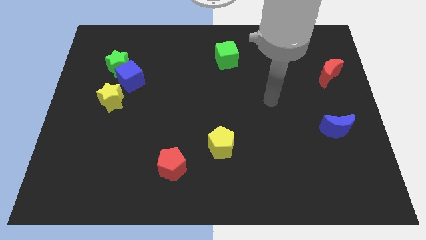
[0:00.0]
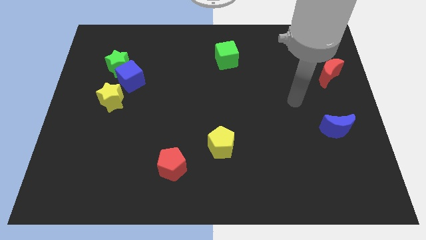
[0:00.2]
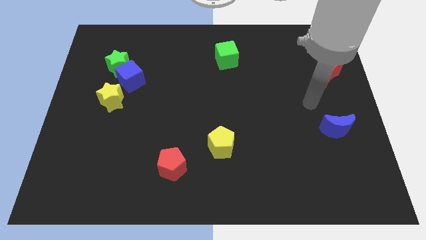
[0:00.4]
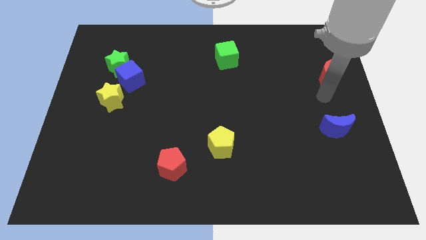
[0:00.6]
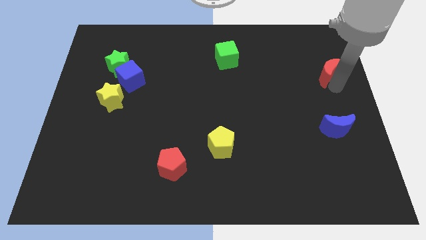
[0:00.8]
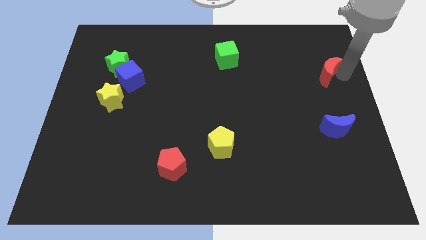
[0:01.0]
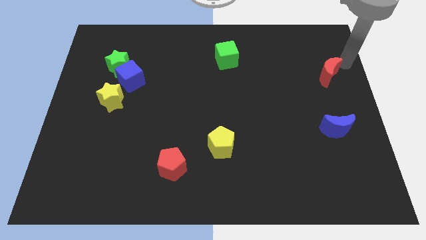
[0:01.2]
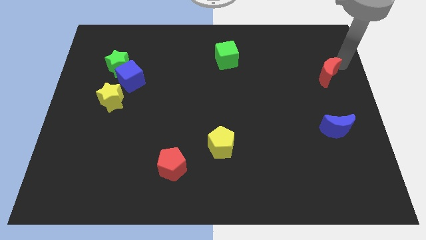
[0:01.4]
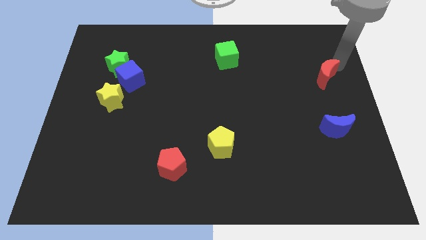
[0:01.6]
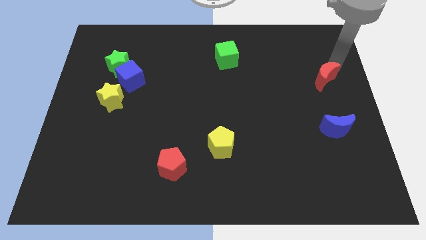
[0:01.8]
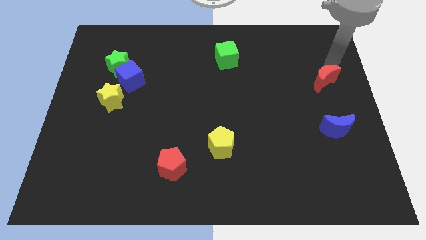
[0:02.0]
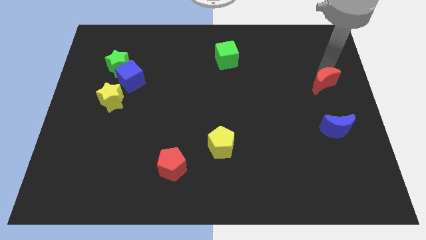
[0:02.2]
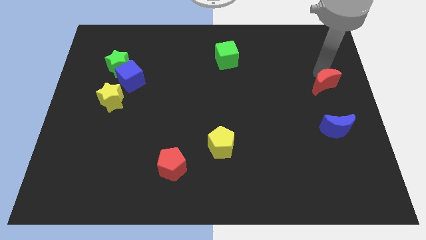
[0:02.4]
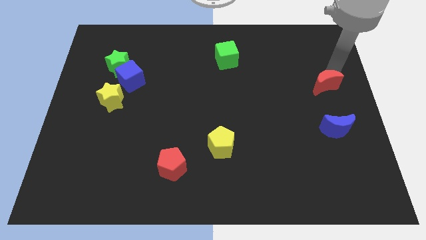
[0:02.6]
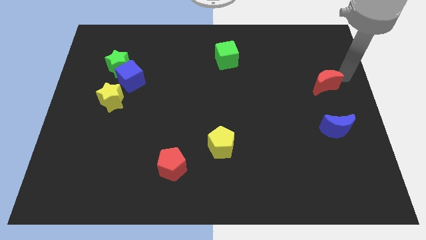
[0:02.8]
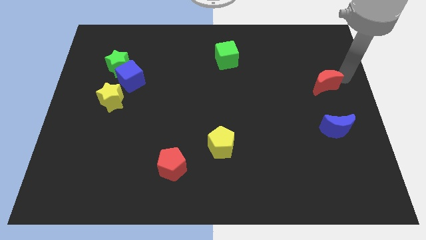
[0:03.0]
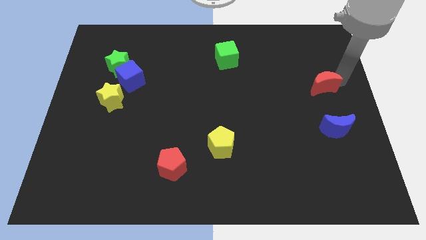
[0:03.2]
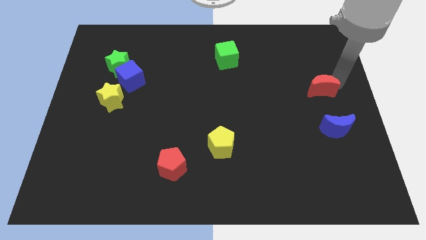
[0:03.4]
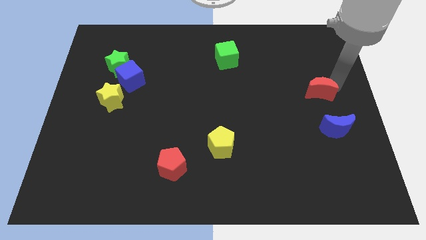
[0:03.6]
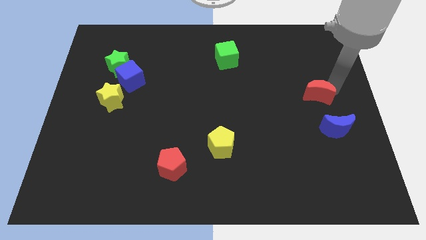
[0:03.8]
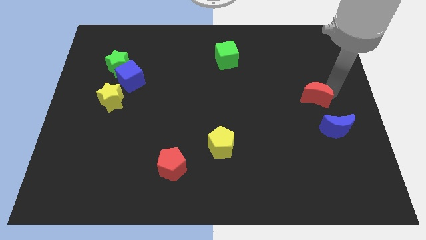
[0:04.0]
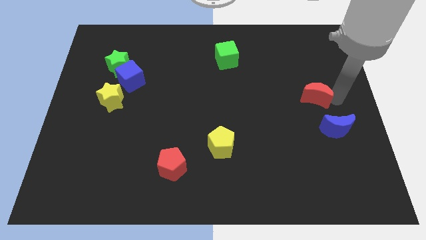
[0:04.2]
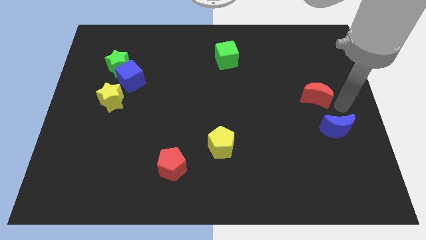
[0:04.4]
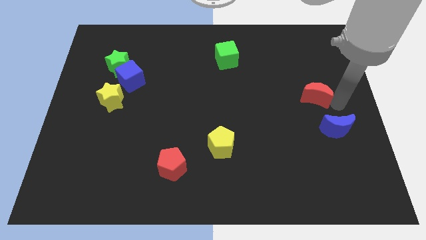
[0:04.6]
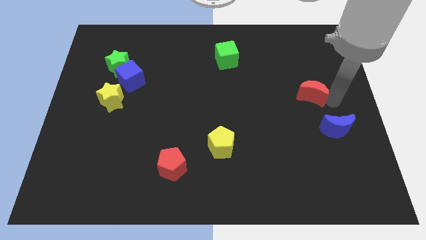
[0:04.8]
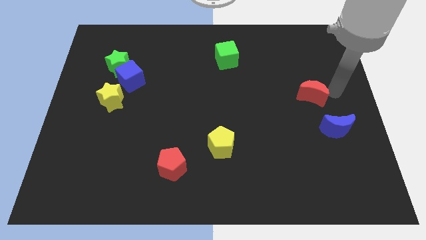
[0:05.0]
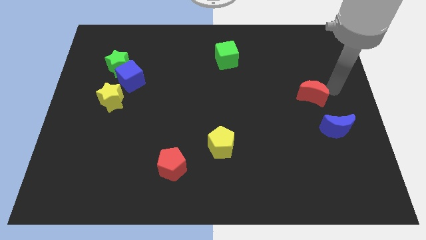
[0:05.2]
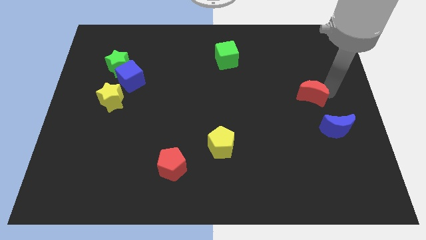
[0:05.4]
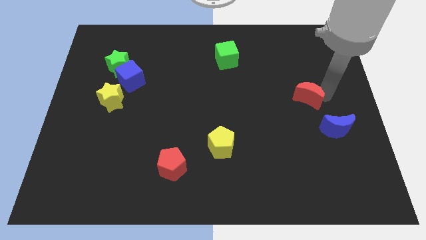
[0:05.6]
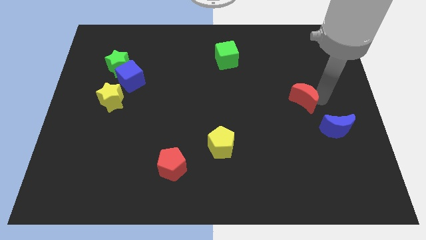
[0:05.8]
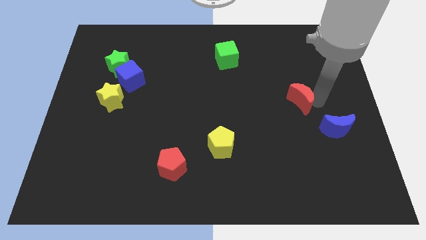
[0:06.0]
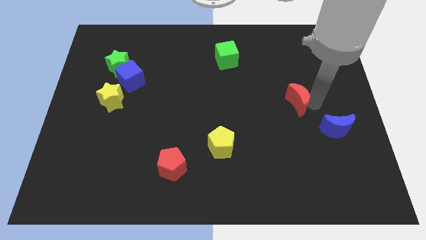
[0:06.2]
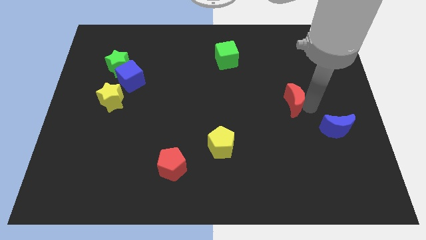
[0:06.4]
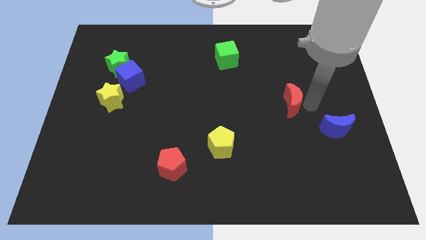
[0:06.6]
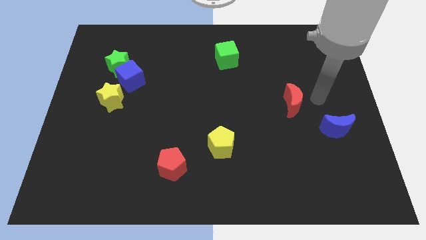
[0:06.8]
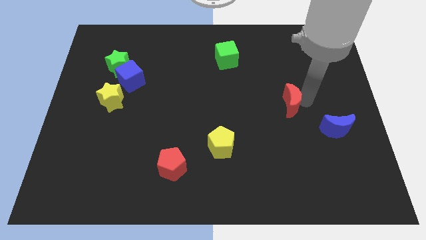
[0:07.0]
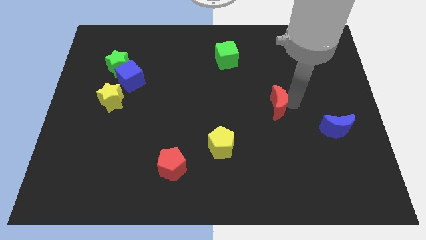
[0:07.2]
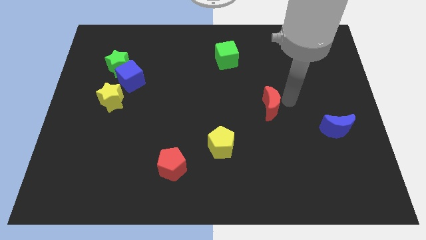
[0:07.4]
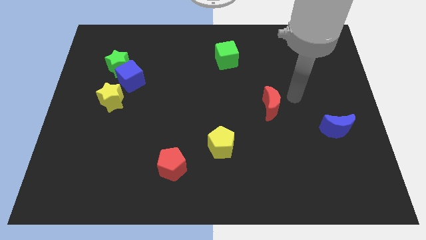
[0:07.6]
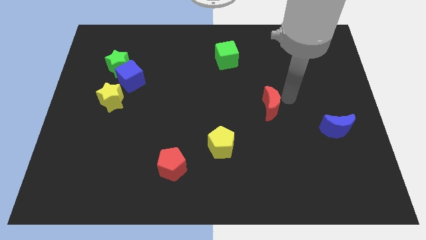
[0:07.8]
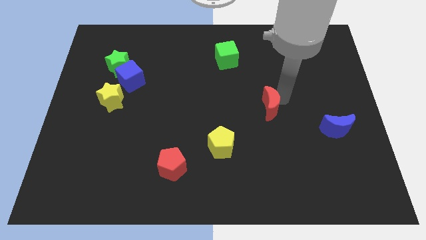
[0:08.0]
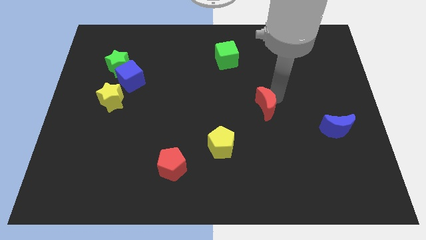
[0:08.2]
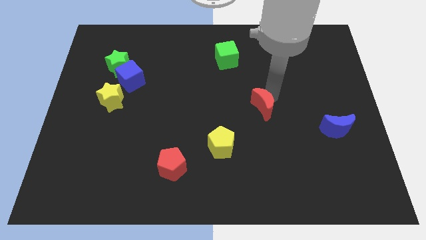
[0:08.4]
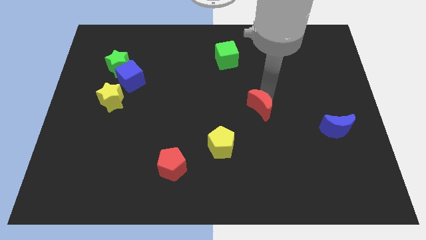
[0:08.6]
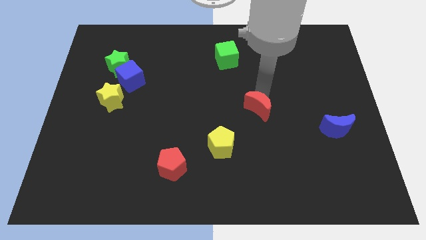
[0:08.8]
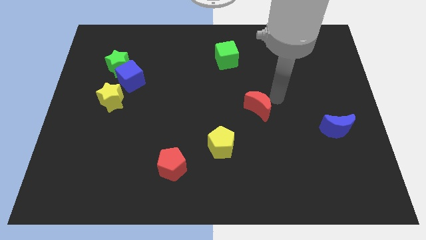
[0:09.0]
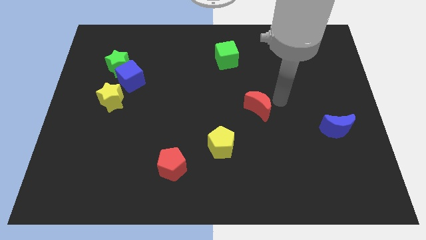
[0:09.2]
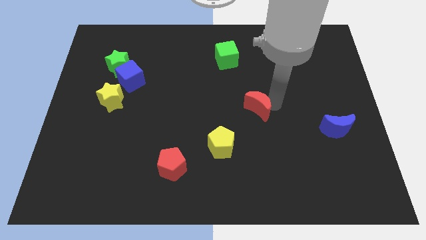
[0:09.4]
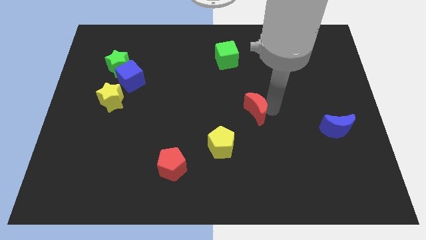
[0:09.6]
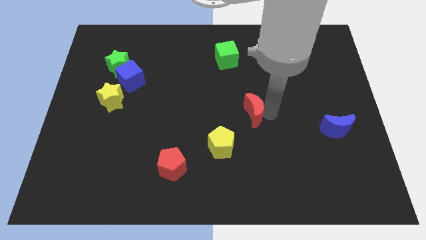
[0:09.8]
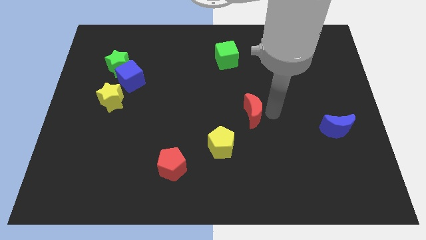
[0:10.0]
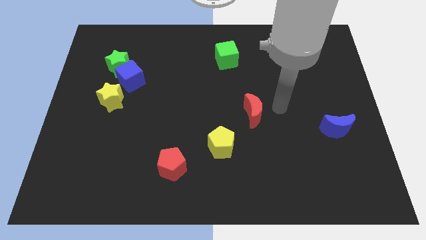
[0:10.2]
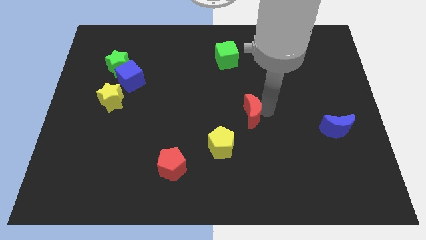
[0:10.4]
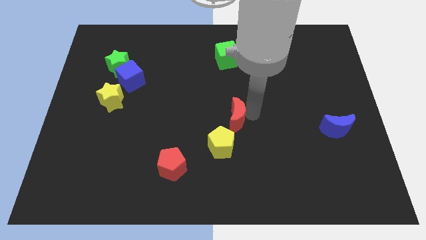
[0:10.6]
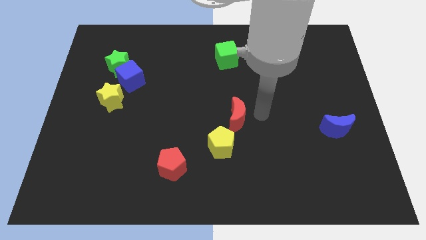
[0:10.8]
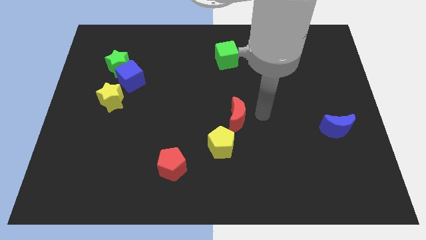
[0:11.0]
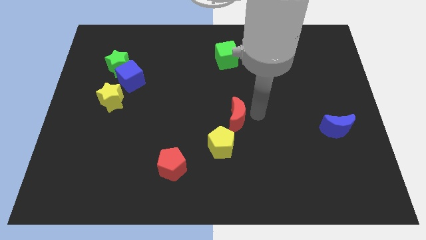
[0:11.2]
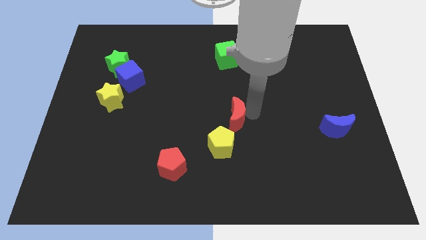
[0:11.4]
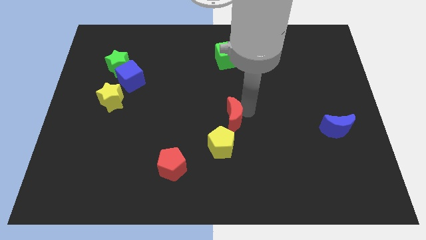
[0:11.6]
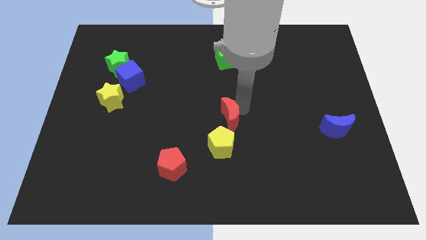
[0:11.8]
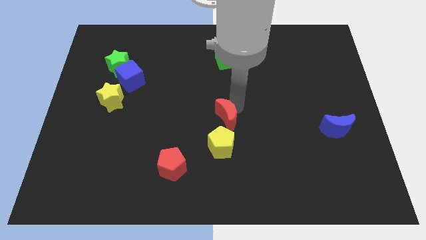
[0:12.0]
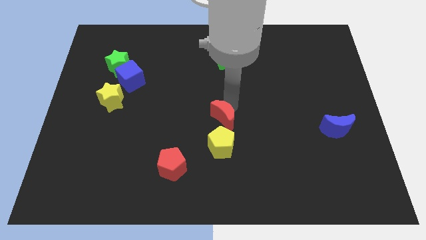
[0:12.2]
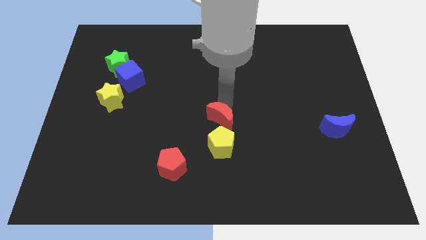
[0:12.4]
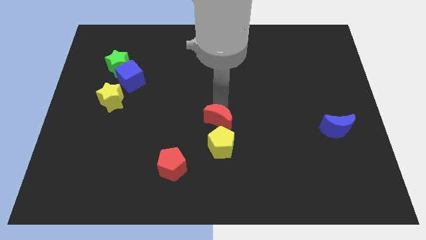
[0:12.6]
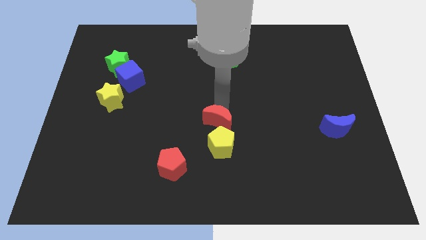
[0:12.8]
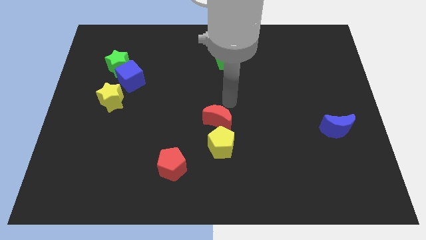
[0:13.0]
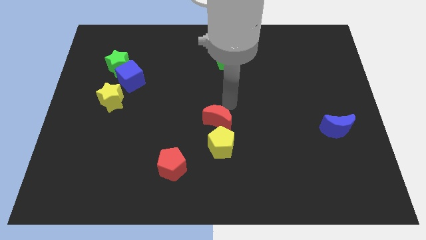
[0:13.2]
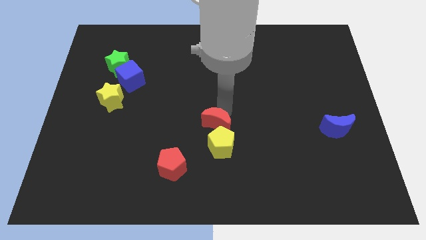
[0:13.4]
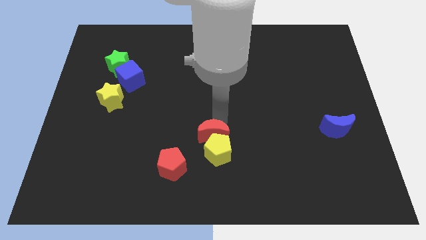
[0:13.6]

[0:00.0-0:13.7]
push the red moon to the top right side of the red pentagon

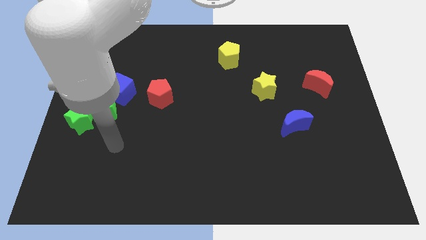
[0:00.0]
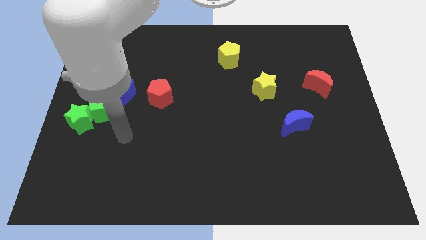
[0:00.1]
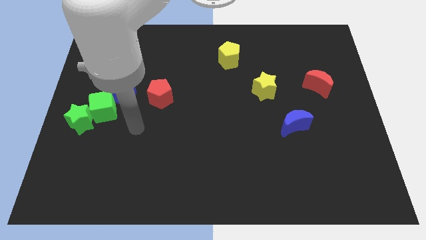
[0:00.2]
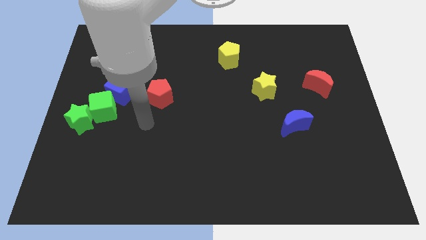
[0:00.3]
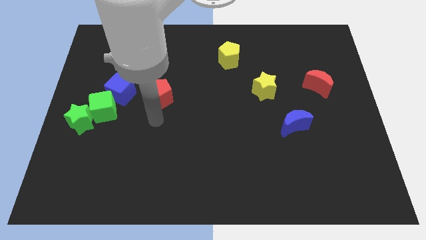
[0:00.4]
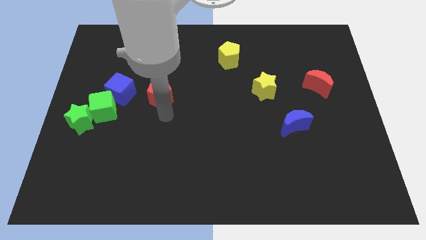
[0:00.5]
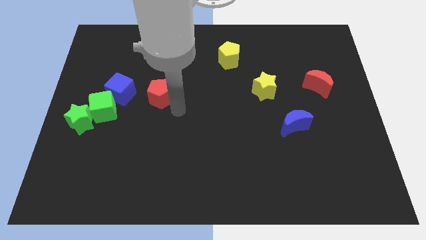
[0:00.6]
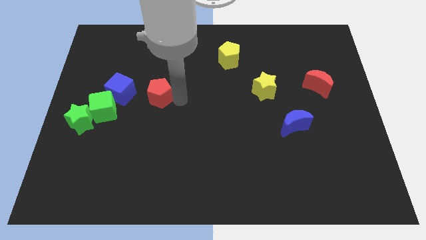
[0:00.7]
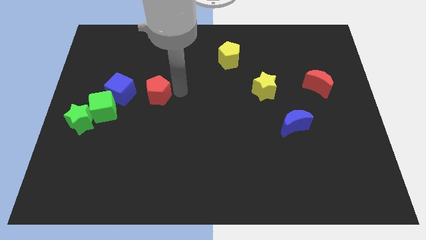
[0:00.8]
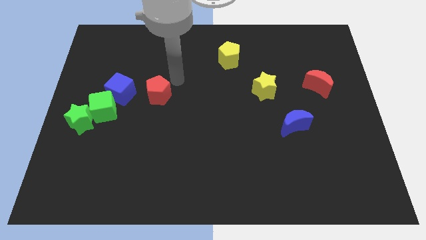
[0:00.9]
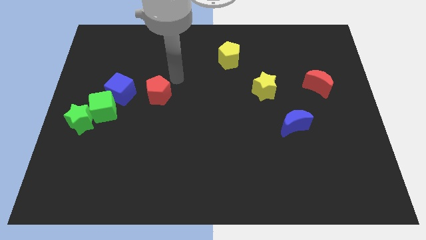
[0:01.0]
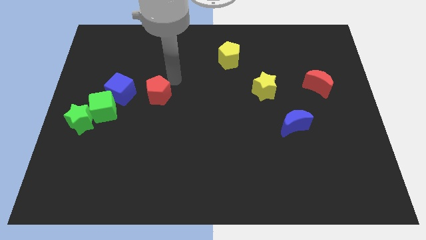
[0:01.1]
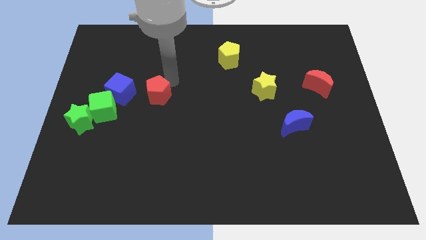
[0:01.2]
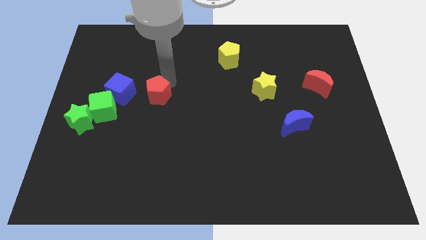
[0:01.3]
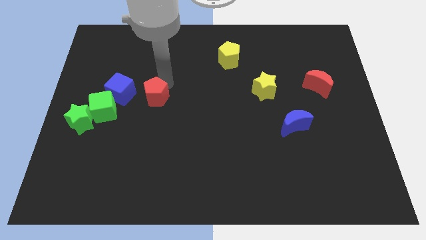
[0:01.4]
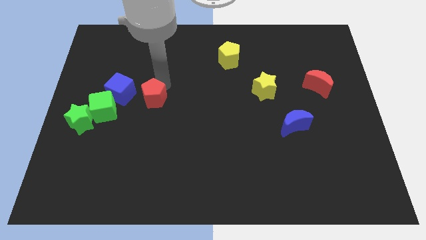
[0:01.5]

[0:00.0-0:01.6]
put the red pentagon to the bottom right side of the blue cube
